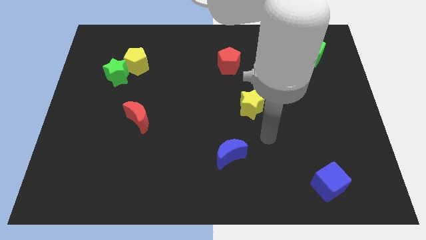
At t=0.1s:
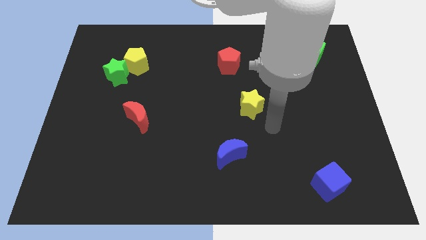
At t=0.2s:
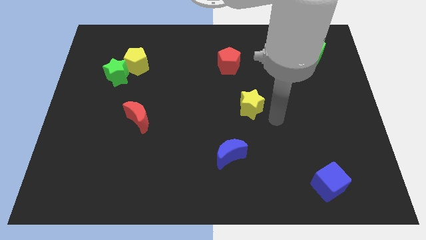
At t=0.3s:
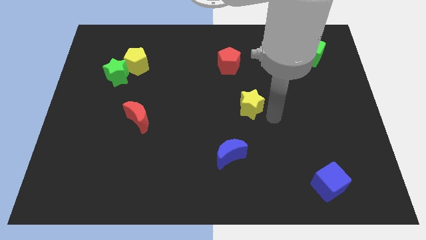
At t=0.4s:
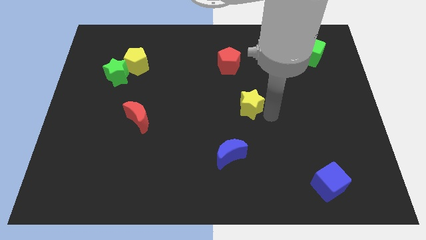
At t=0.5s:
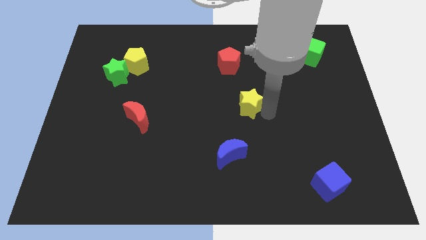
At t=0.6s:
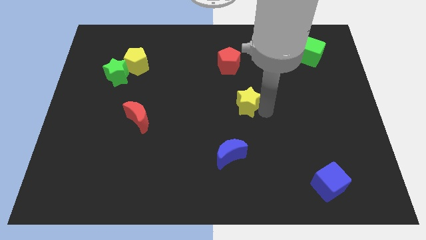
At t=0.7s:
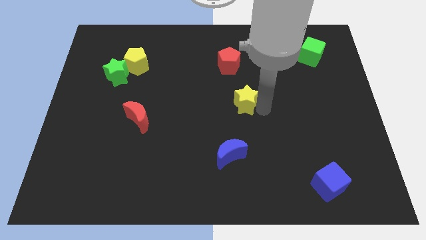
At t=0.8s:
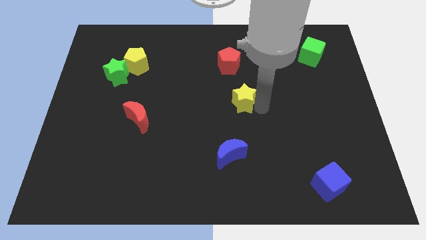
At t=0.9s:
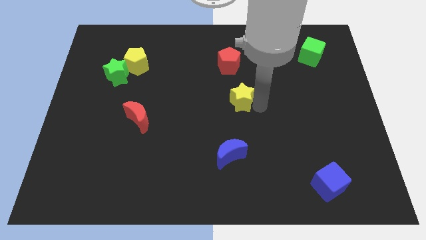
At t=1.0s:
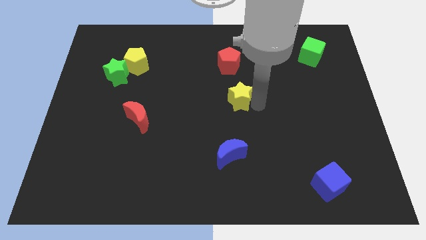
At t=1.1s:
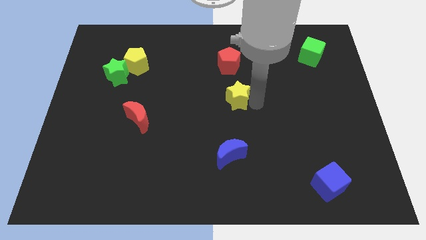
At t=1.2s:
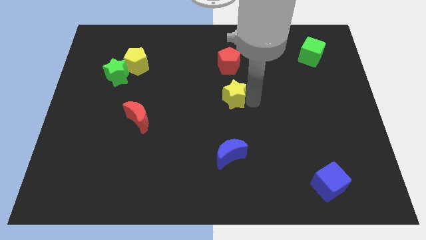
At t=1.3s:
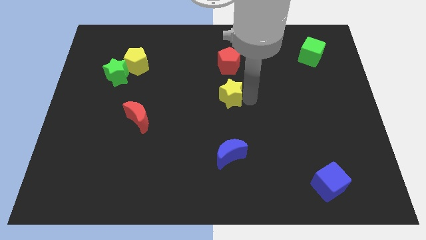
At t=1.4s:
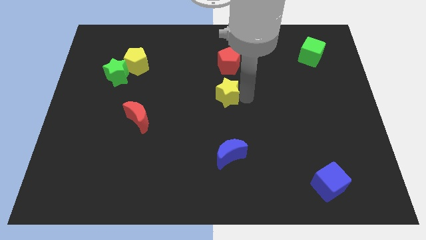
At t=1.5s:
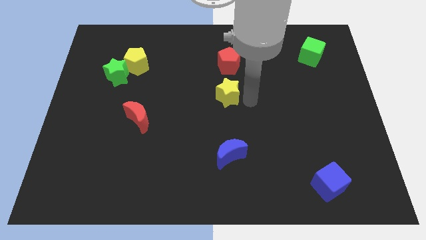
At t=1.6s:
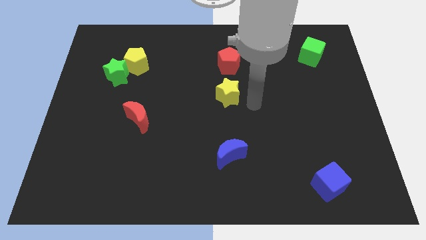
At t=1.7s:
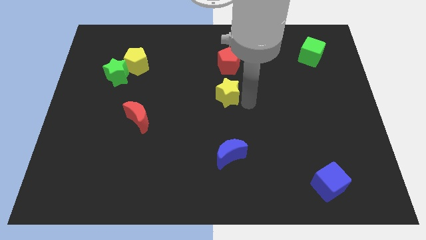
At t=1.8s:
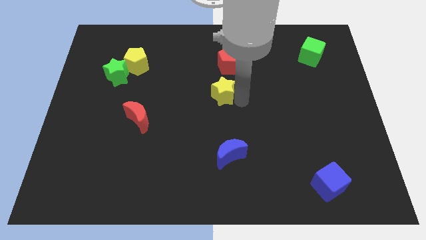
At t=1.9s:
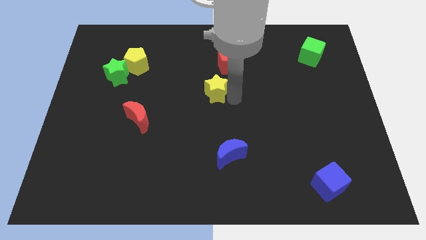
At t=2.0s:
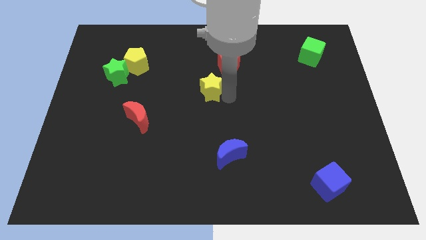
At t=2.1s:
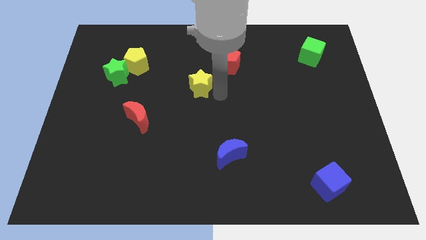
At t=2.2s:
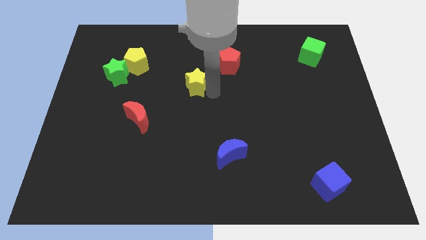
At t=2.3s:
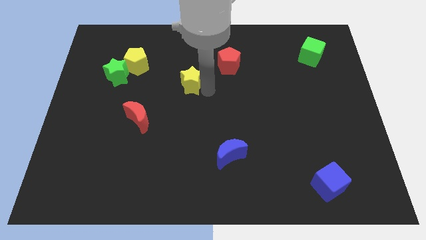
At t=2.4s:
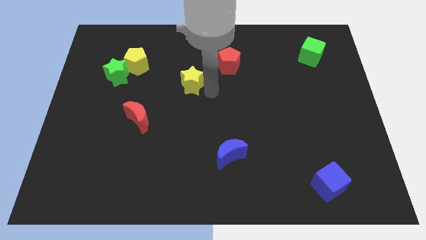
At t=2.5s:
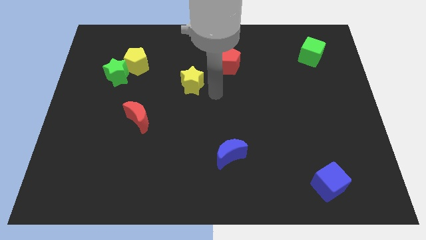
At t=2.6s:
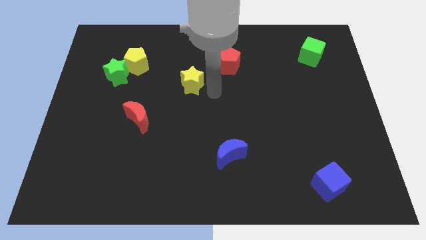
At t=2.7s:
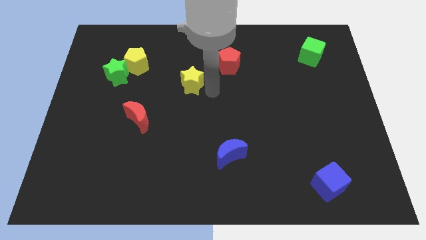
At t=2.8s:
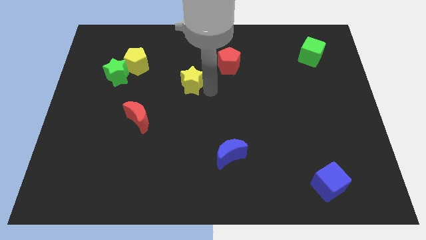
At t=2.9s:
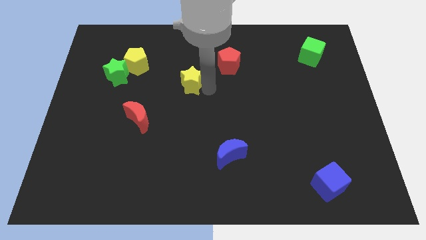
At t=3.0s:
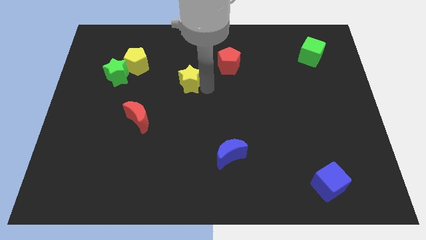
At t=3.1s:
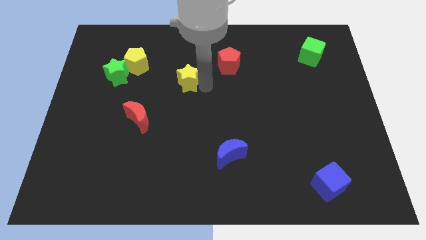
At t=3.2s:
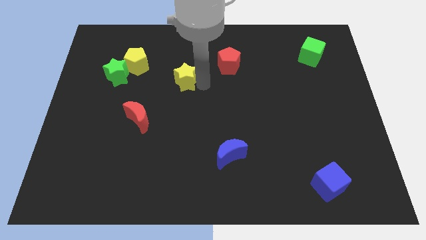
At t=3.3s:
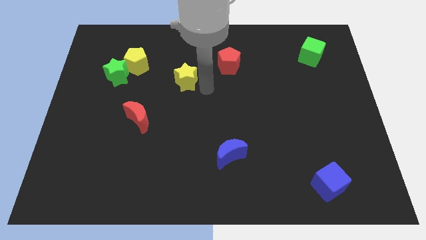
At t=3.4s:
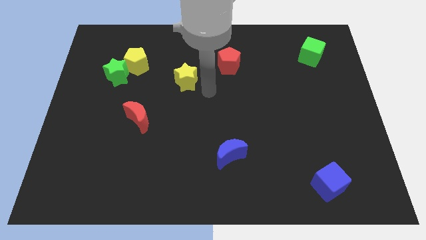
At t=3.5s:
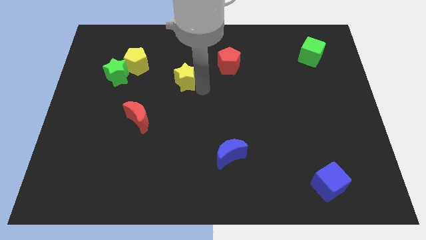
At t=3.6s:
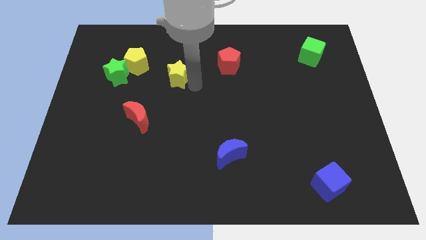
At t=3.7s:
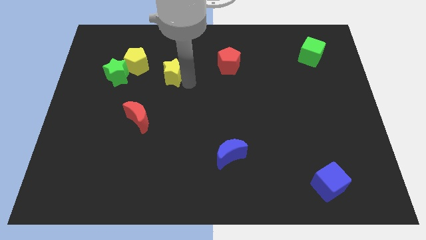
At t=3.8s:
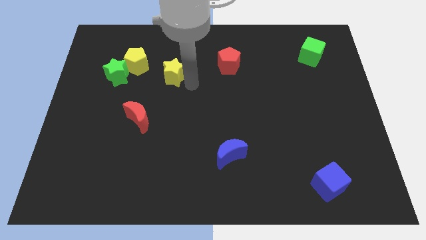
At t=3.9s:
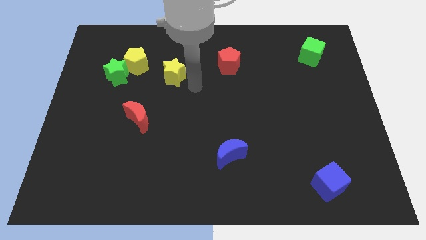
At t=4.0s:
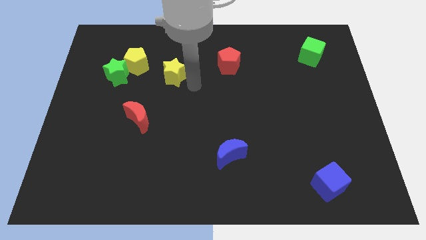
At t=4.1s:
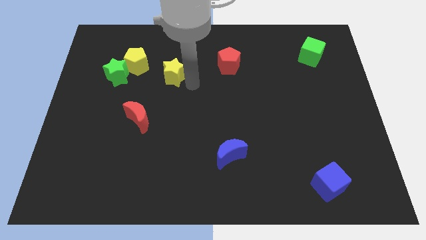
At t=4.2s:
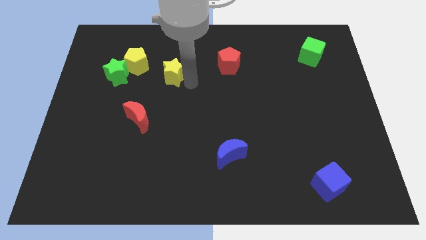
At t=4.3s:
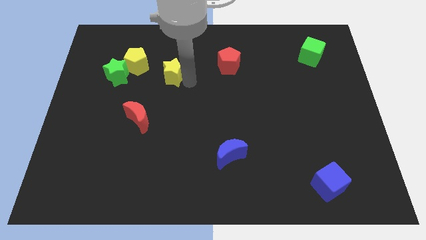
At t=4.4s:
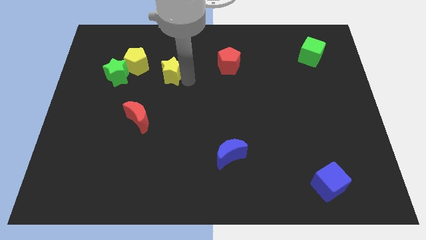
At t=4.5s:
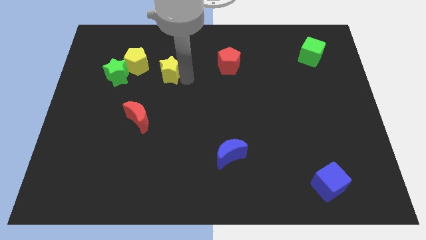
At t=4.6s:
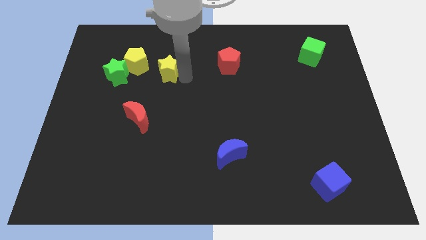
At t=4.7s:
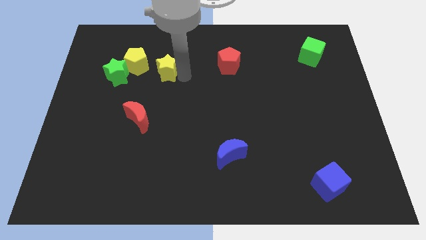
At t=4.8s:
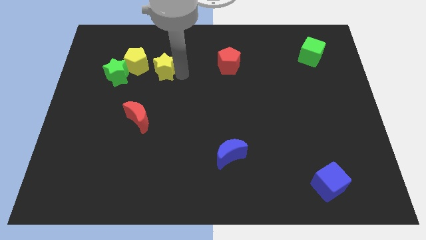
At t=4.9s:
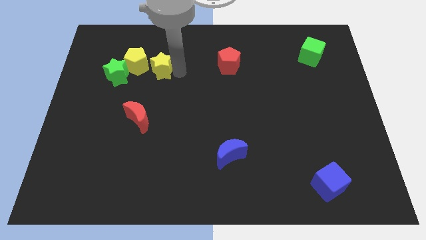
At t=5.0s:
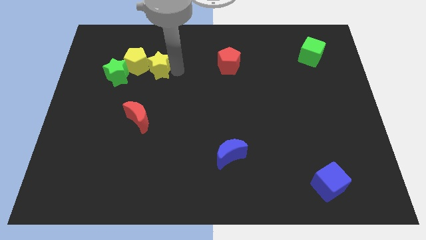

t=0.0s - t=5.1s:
move the yellow star to the yellow pentagon

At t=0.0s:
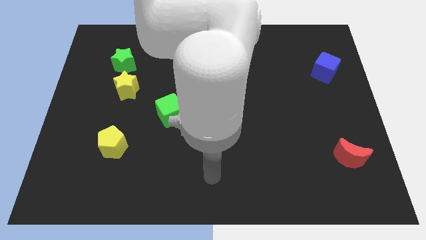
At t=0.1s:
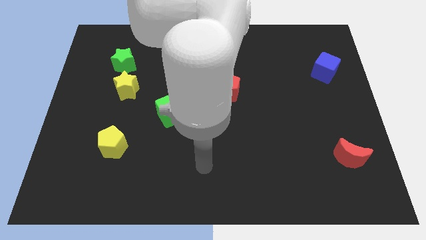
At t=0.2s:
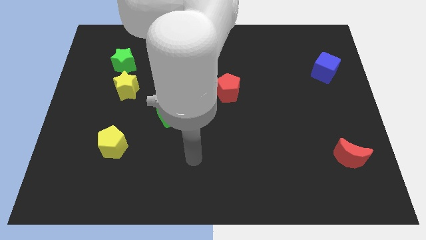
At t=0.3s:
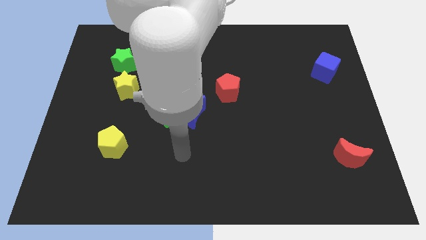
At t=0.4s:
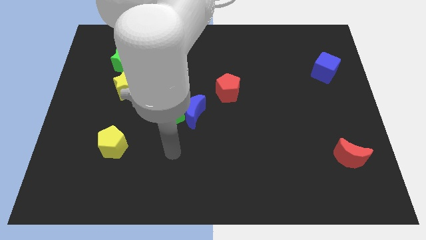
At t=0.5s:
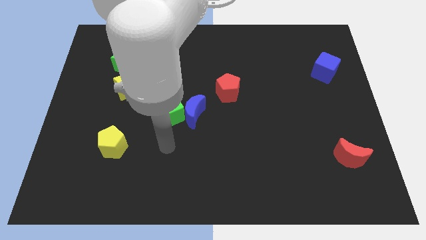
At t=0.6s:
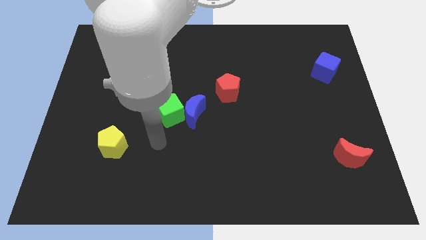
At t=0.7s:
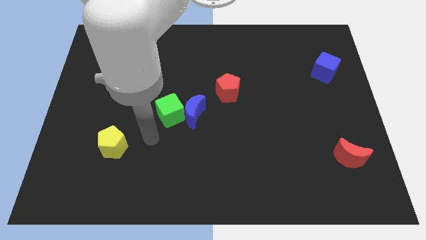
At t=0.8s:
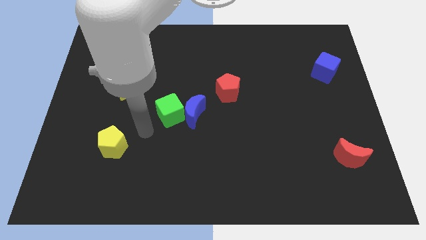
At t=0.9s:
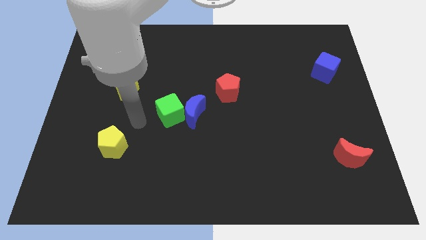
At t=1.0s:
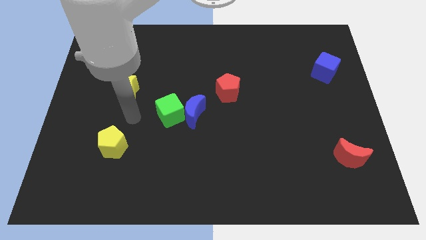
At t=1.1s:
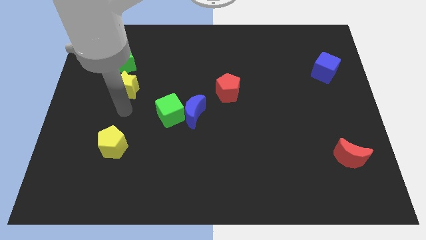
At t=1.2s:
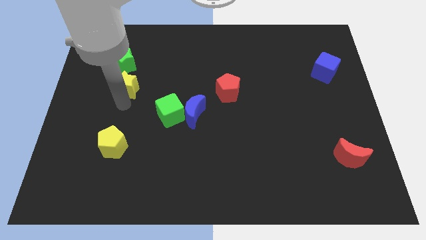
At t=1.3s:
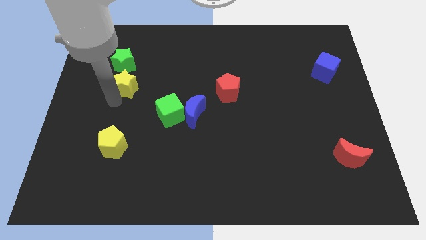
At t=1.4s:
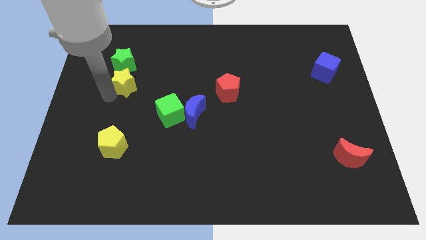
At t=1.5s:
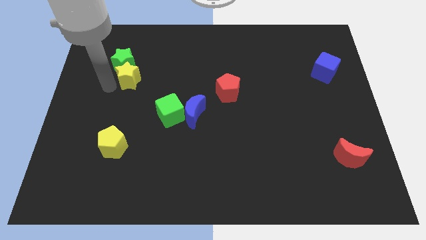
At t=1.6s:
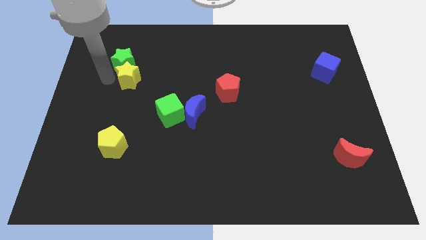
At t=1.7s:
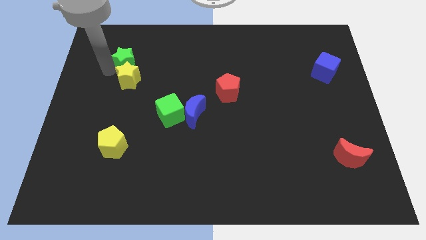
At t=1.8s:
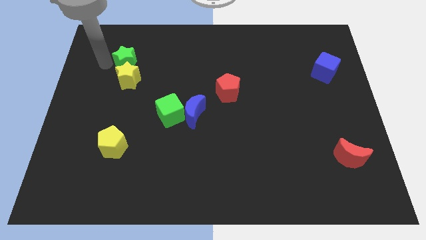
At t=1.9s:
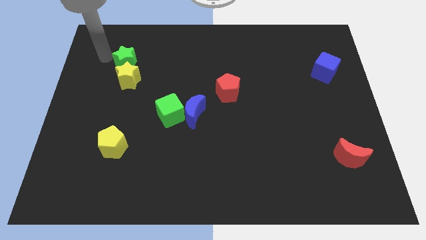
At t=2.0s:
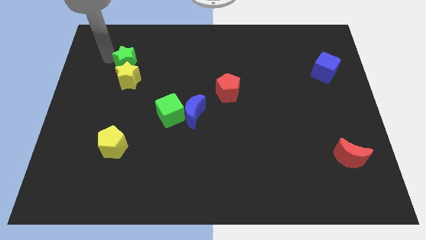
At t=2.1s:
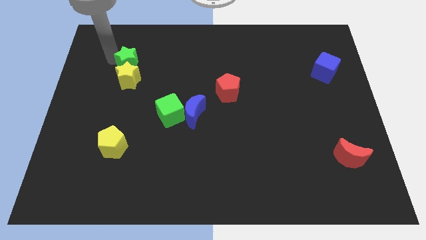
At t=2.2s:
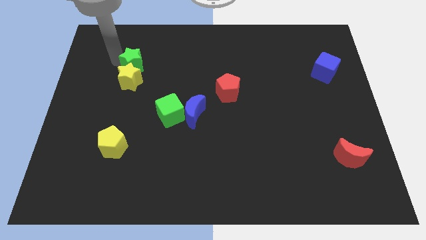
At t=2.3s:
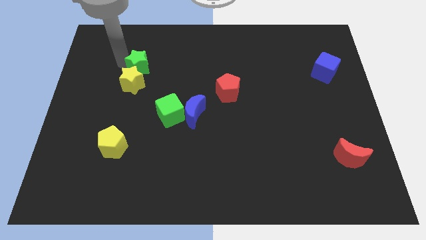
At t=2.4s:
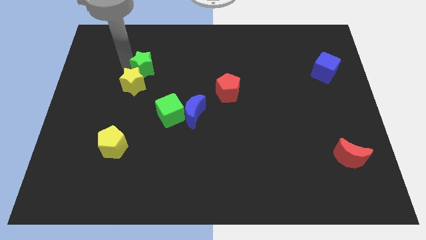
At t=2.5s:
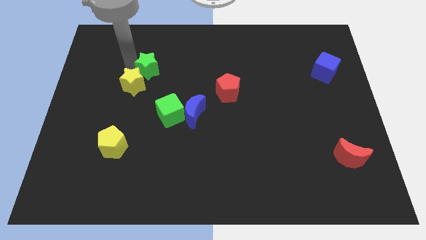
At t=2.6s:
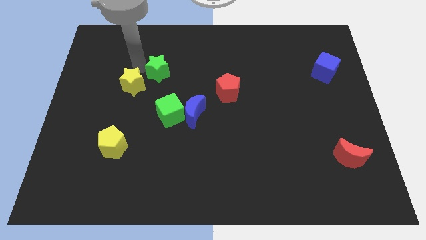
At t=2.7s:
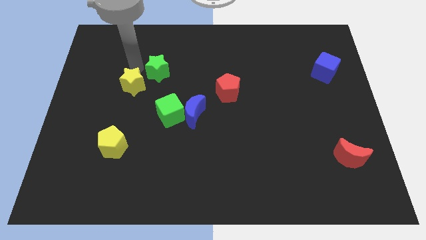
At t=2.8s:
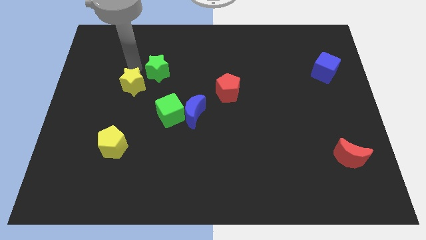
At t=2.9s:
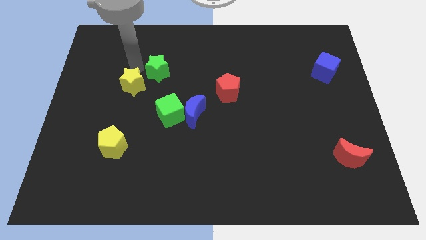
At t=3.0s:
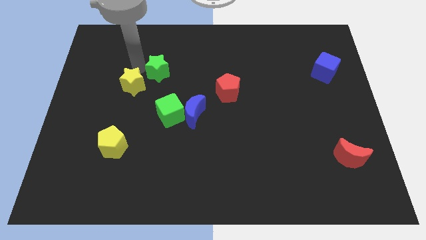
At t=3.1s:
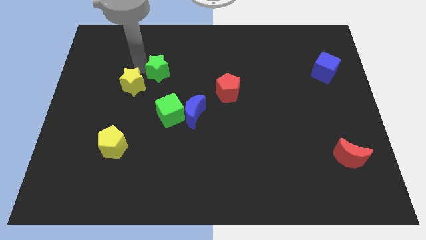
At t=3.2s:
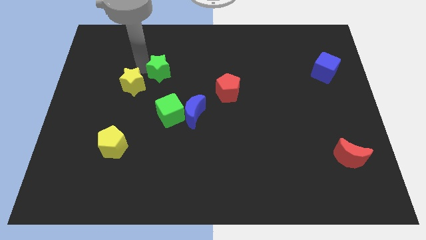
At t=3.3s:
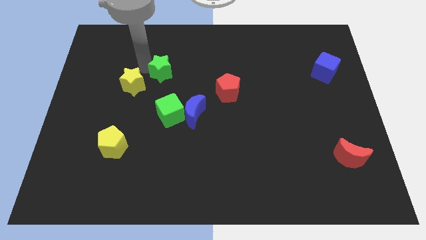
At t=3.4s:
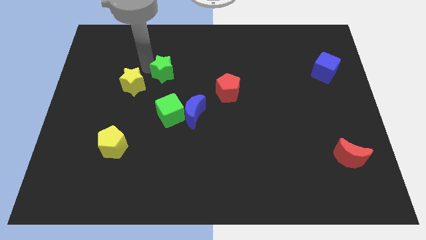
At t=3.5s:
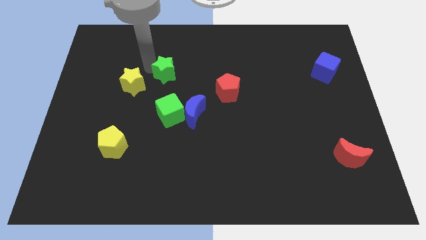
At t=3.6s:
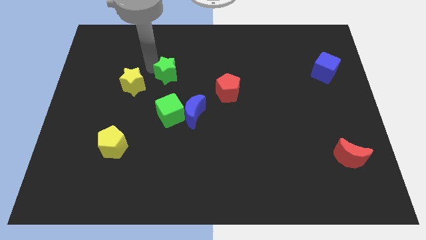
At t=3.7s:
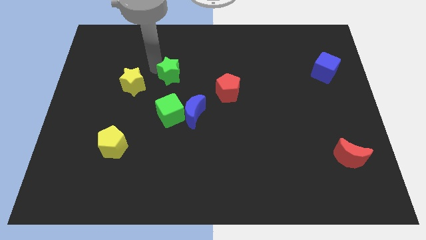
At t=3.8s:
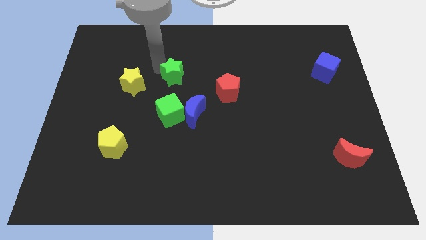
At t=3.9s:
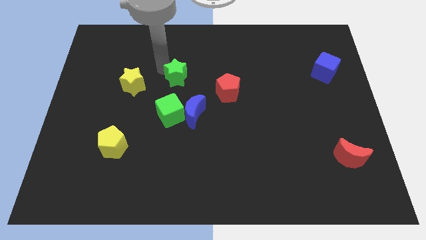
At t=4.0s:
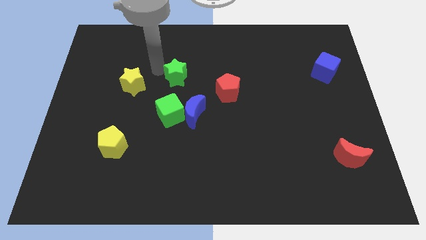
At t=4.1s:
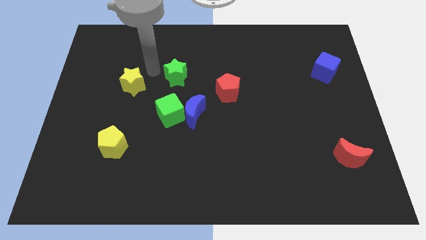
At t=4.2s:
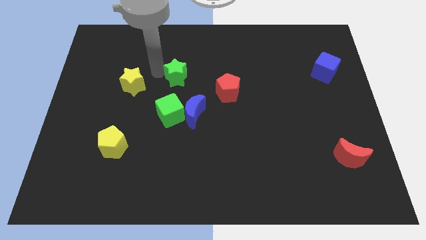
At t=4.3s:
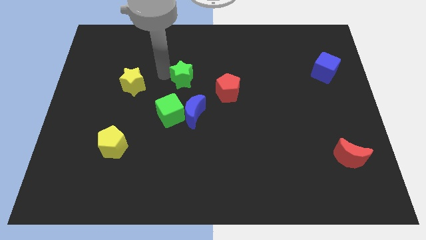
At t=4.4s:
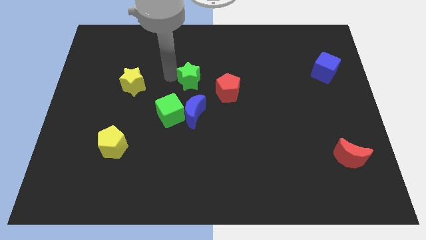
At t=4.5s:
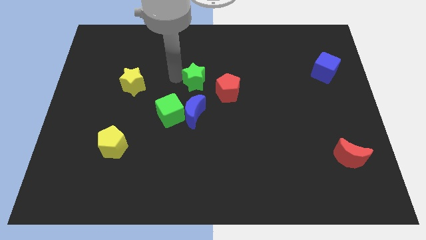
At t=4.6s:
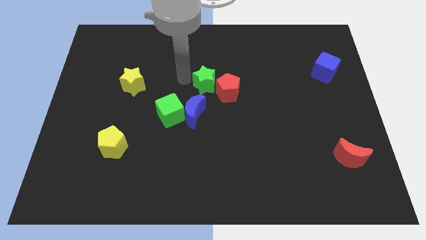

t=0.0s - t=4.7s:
put the green star close to the red pentagon
